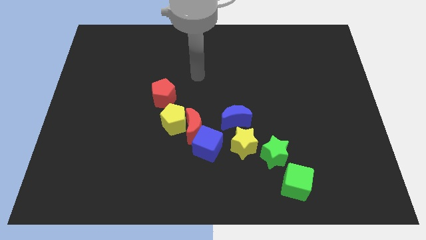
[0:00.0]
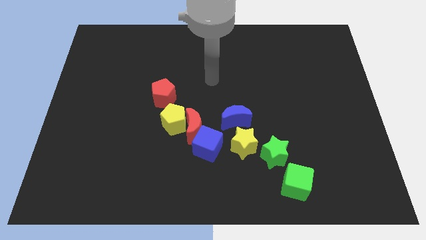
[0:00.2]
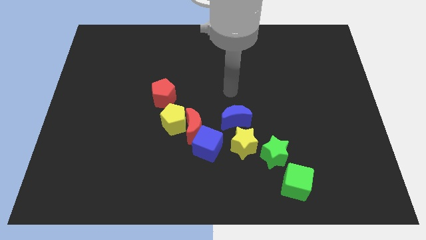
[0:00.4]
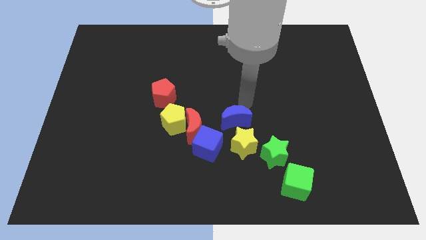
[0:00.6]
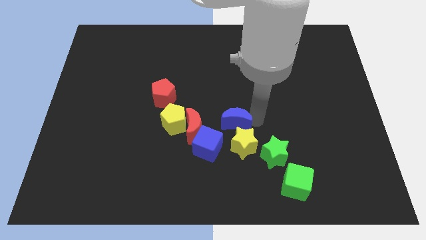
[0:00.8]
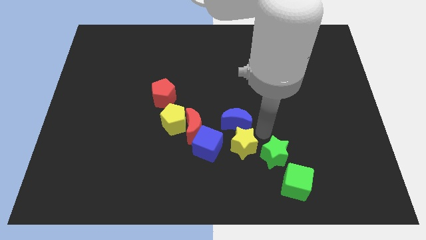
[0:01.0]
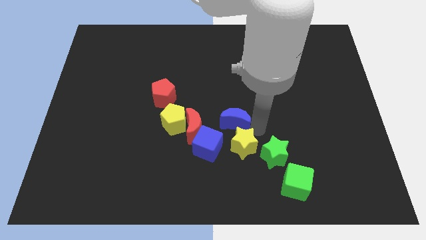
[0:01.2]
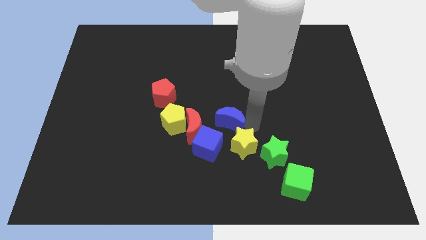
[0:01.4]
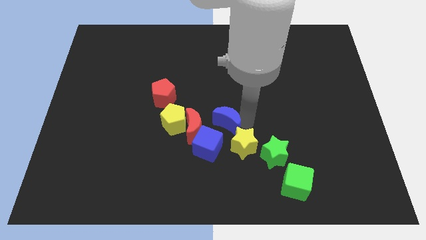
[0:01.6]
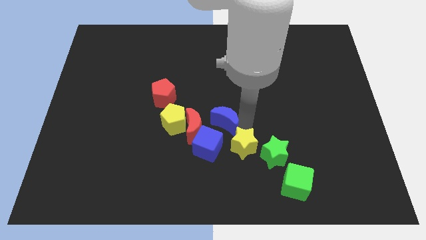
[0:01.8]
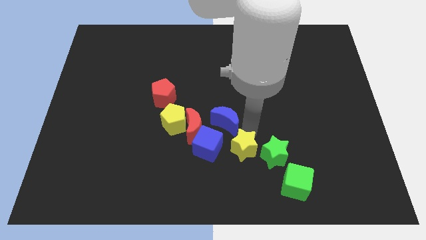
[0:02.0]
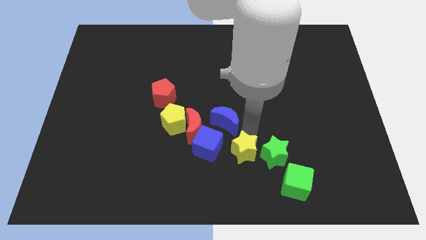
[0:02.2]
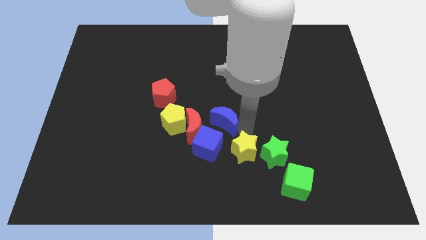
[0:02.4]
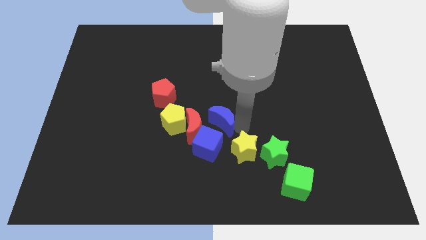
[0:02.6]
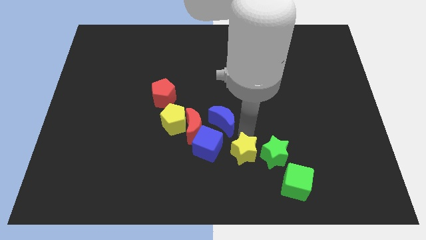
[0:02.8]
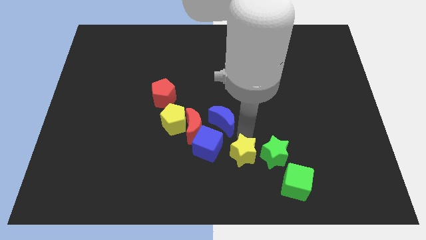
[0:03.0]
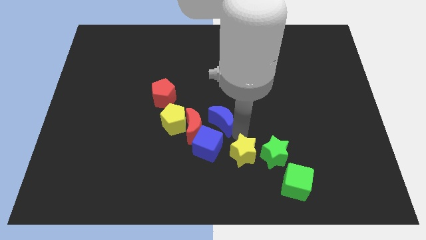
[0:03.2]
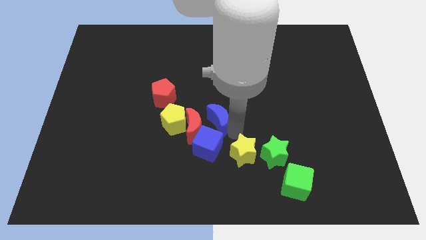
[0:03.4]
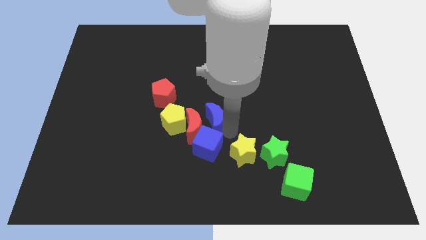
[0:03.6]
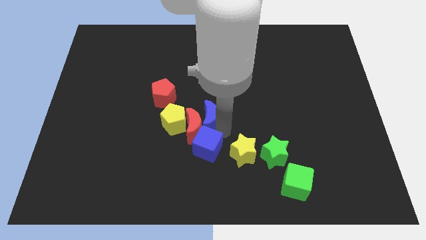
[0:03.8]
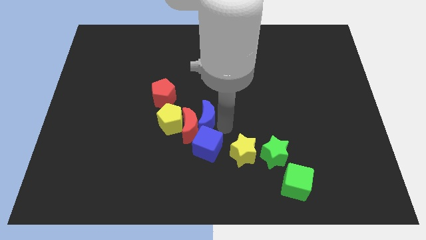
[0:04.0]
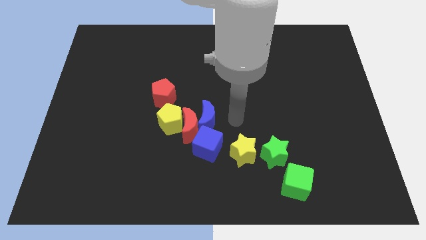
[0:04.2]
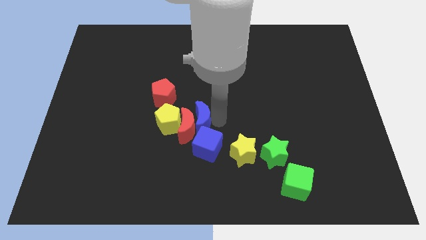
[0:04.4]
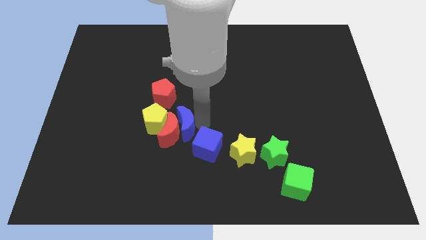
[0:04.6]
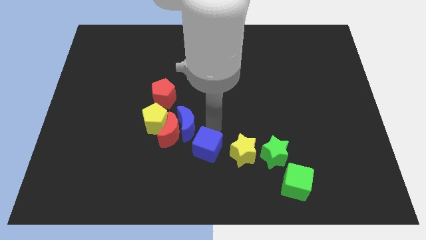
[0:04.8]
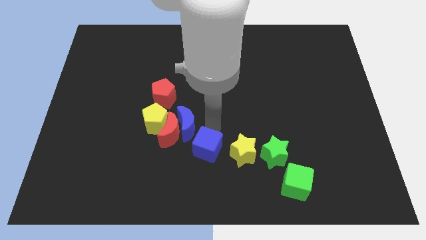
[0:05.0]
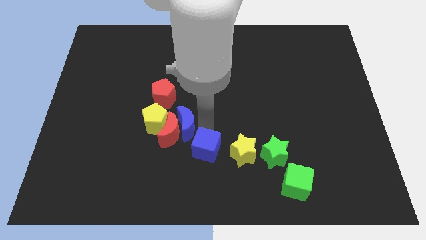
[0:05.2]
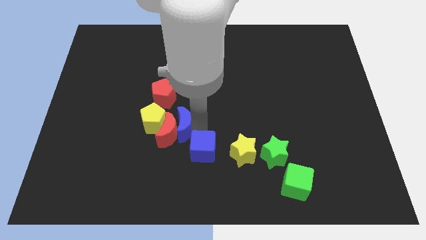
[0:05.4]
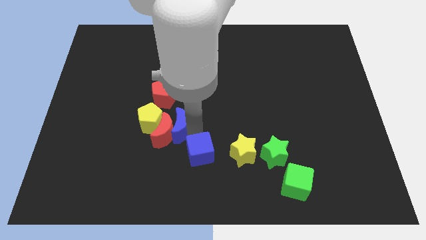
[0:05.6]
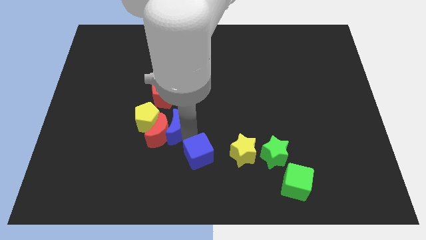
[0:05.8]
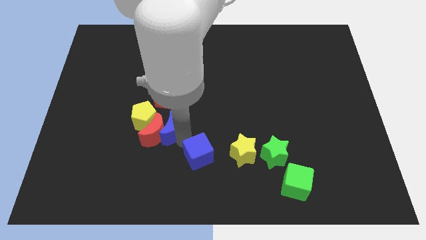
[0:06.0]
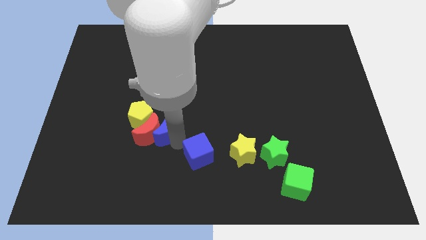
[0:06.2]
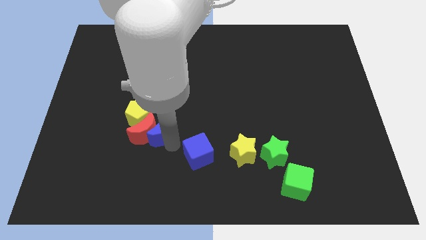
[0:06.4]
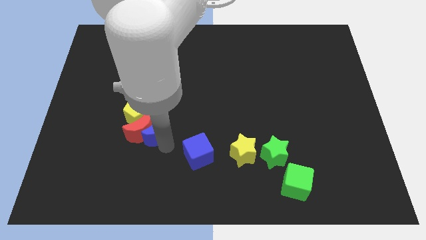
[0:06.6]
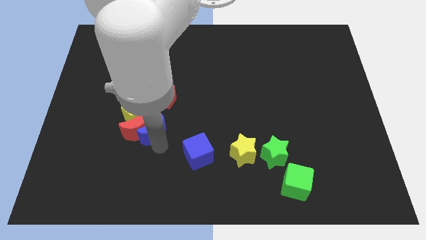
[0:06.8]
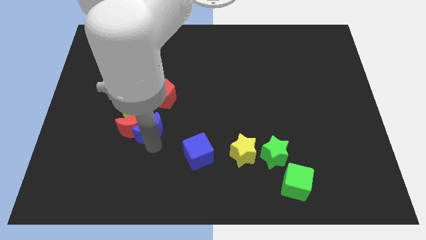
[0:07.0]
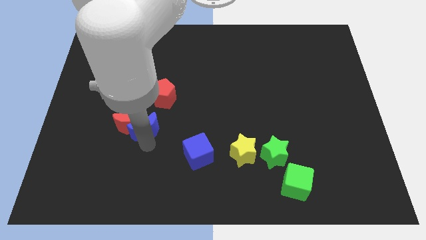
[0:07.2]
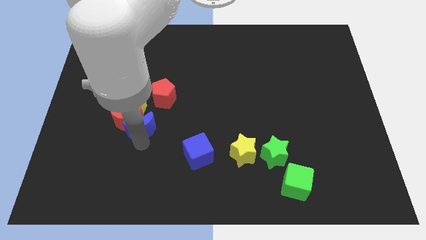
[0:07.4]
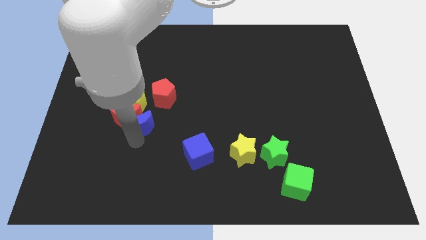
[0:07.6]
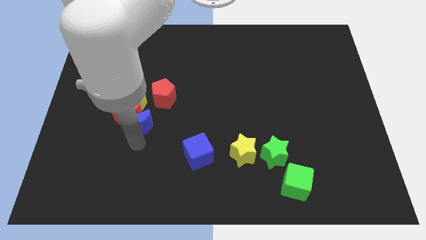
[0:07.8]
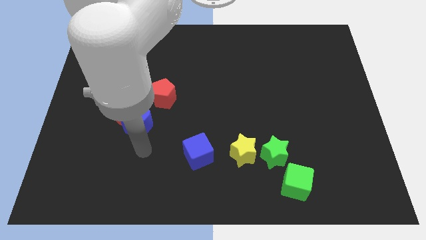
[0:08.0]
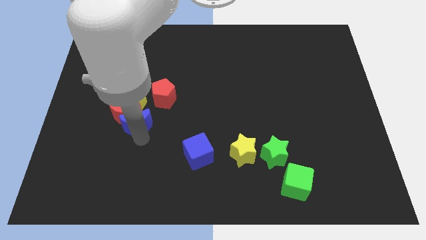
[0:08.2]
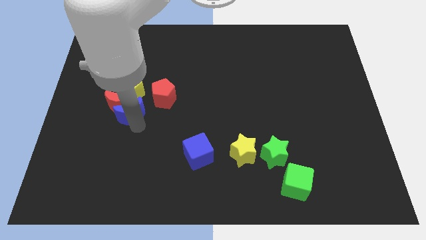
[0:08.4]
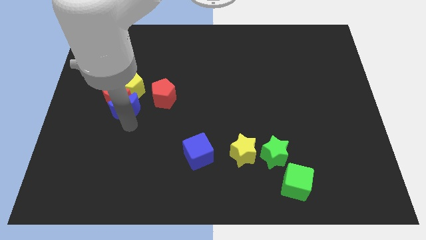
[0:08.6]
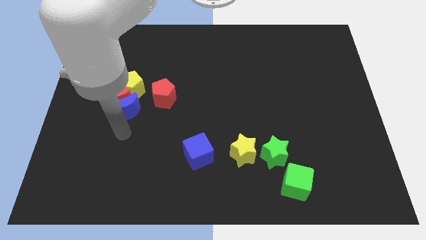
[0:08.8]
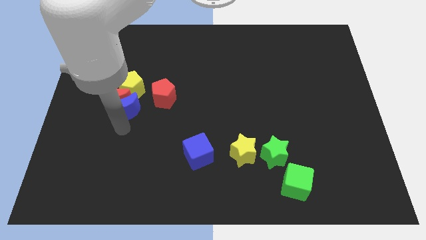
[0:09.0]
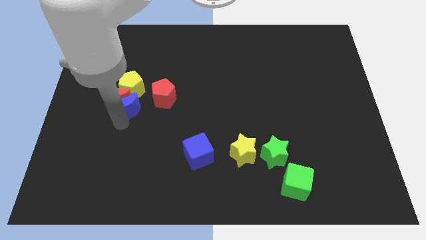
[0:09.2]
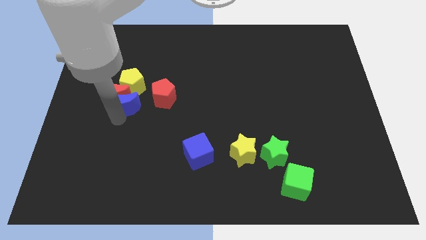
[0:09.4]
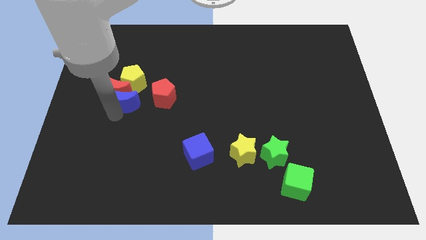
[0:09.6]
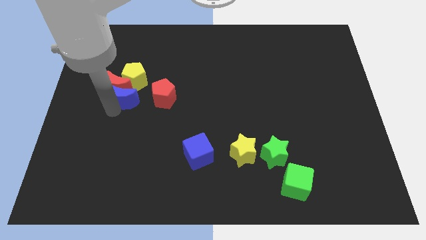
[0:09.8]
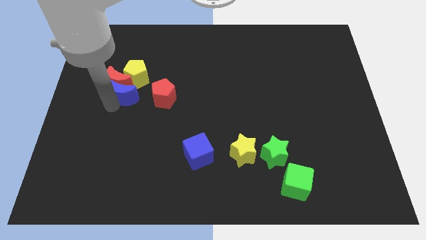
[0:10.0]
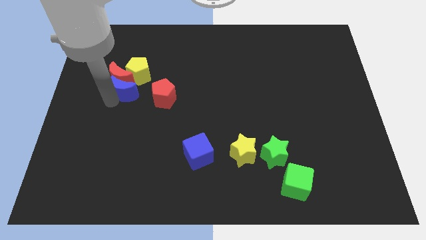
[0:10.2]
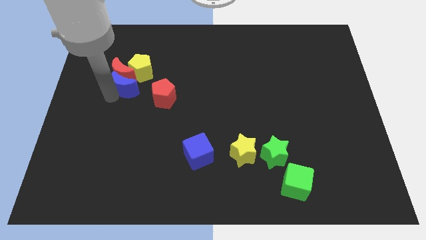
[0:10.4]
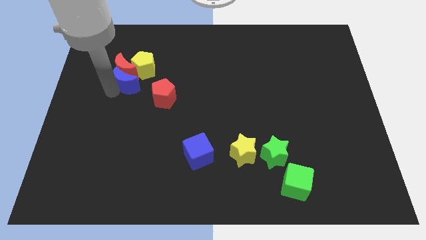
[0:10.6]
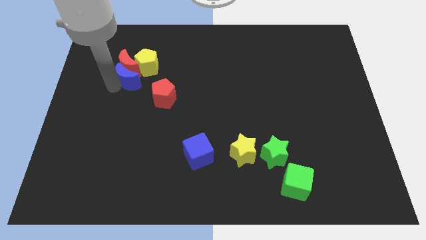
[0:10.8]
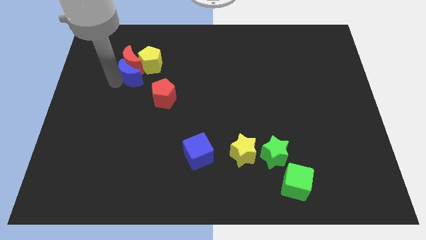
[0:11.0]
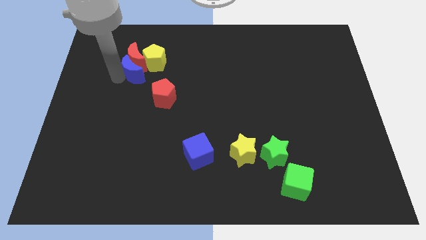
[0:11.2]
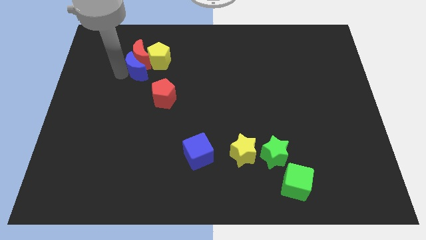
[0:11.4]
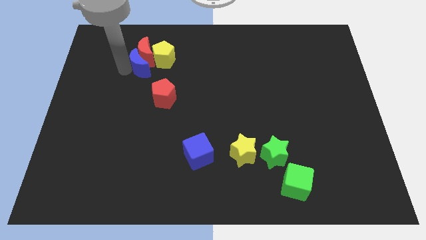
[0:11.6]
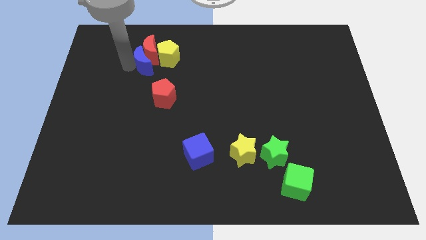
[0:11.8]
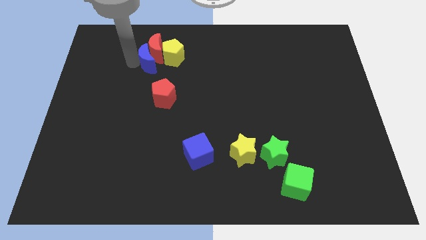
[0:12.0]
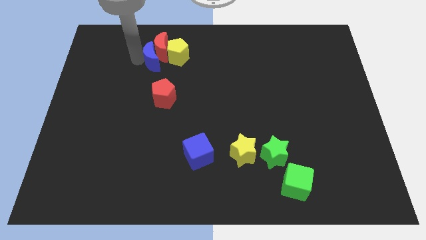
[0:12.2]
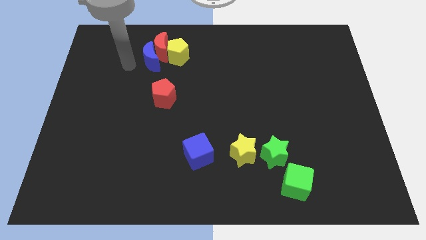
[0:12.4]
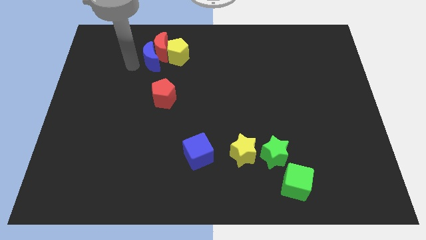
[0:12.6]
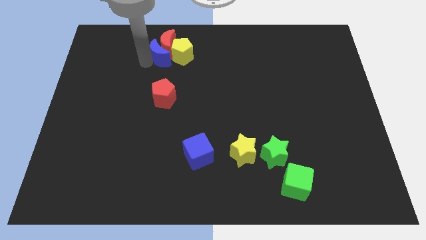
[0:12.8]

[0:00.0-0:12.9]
slide the blue moon towards the yellow pentagon
